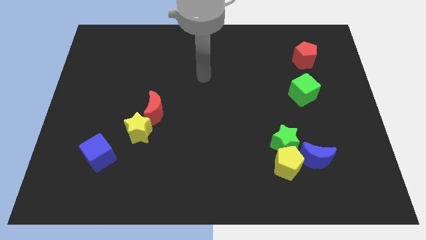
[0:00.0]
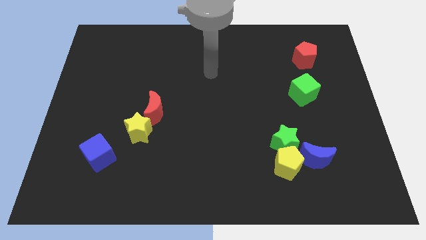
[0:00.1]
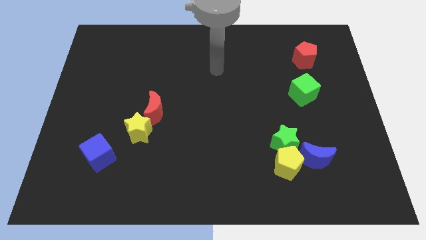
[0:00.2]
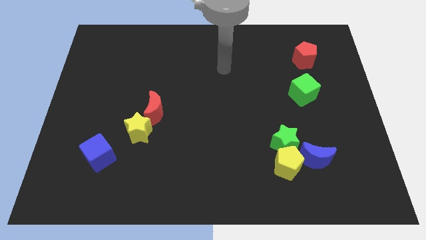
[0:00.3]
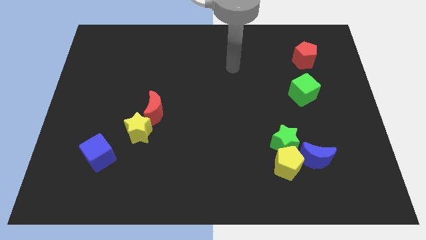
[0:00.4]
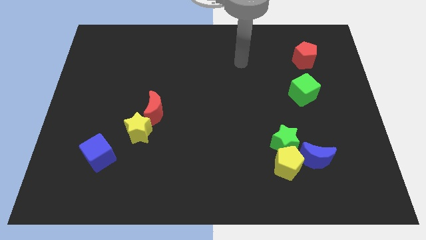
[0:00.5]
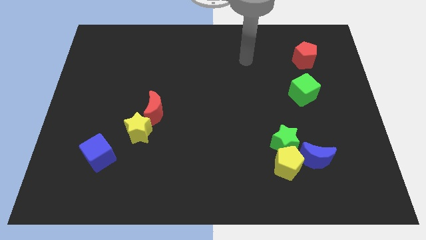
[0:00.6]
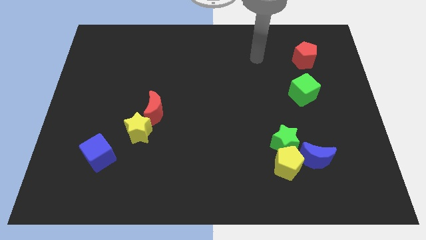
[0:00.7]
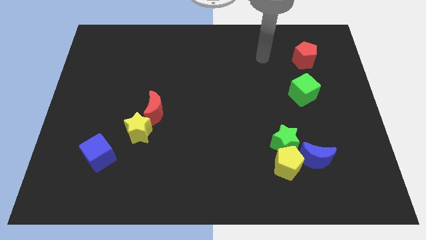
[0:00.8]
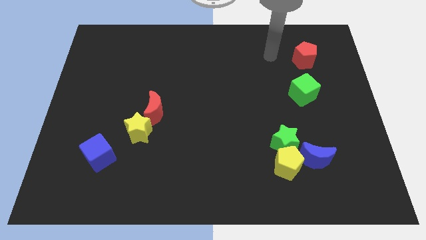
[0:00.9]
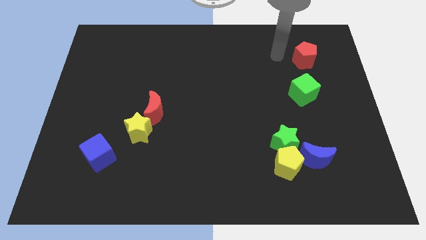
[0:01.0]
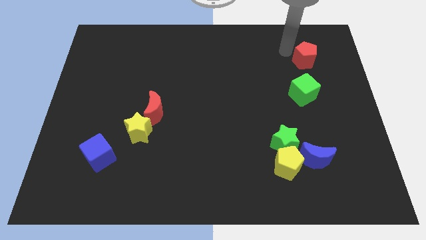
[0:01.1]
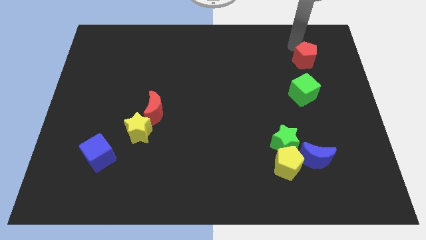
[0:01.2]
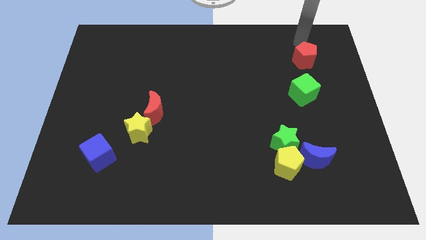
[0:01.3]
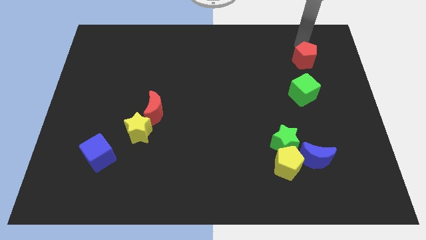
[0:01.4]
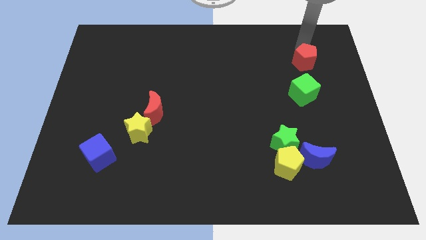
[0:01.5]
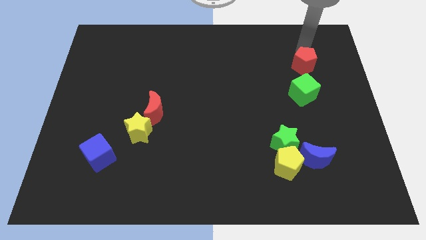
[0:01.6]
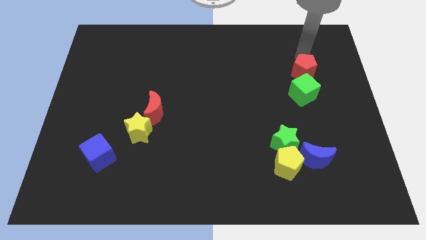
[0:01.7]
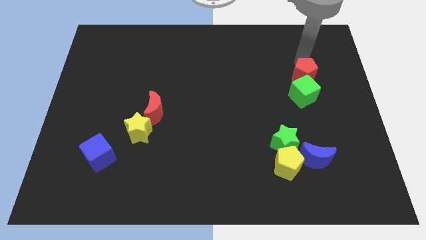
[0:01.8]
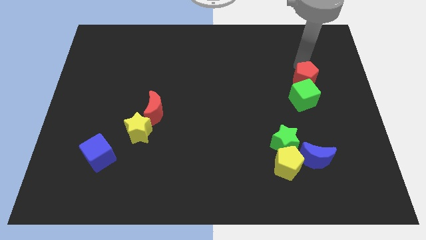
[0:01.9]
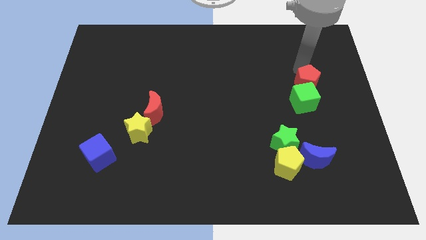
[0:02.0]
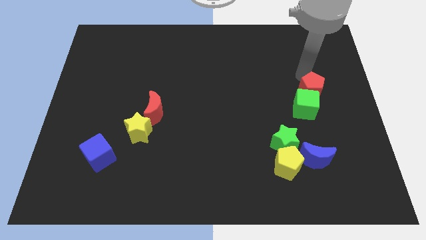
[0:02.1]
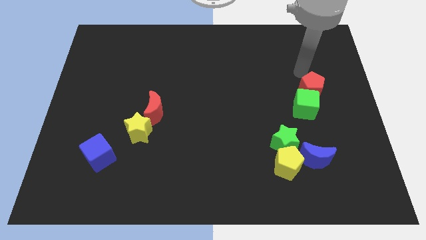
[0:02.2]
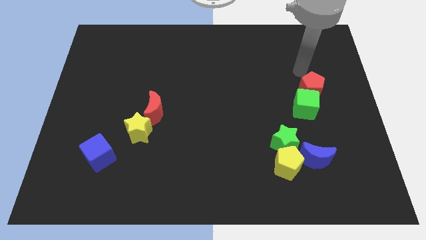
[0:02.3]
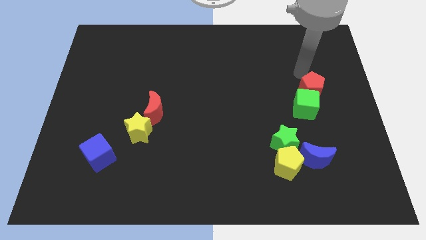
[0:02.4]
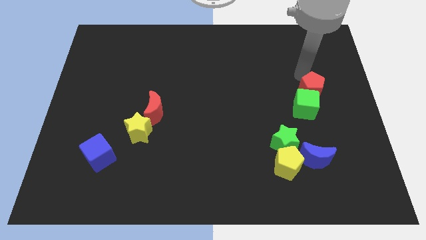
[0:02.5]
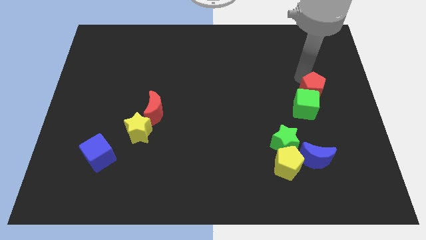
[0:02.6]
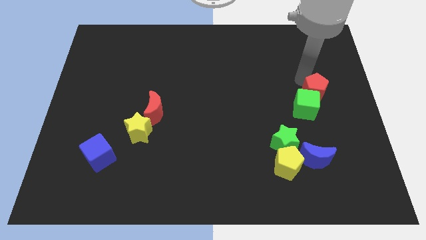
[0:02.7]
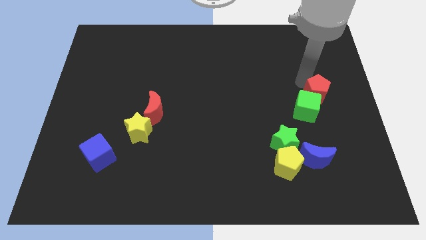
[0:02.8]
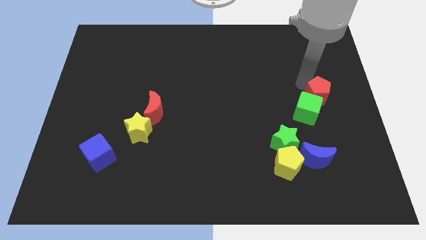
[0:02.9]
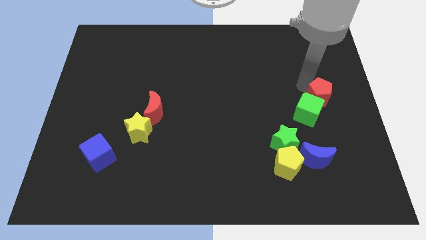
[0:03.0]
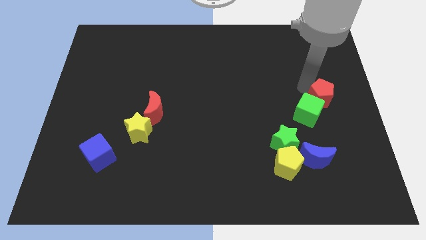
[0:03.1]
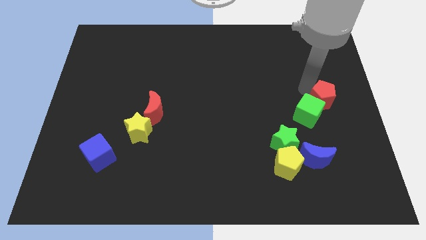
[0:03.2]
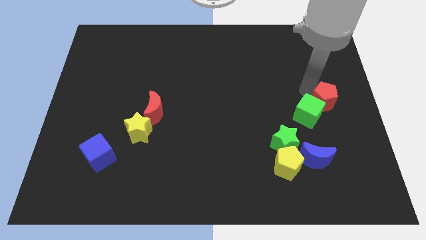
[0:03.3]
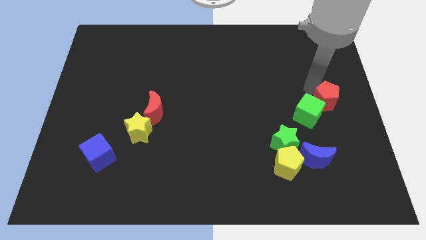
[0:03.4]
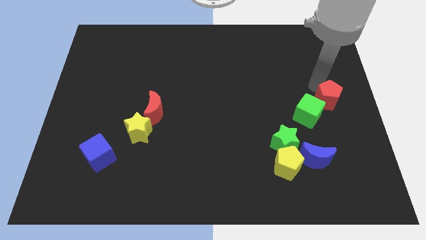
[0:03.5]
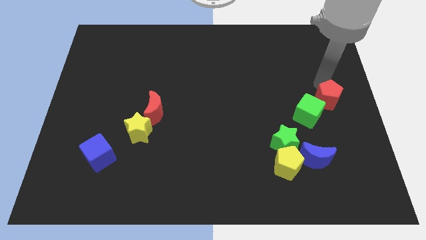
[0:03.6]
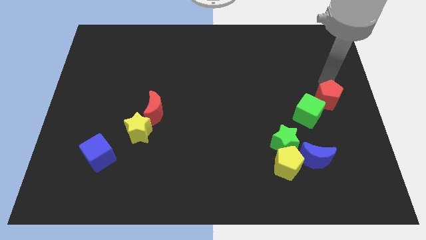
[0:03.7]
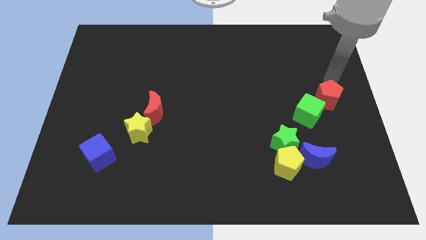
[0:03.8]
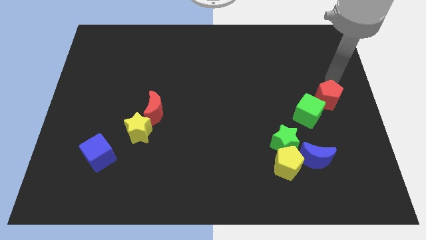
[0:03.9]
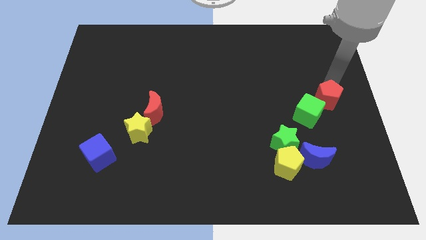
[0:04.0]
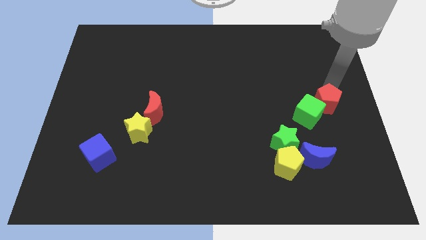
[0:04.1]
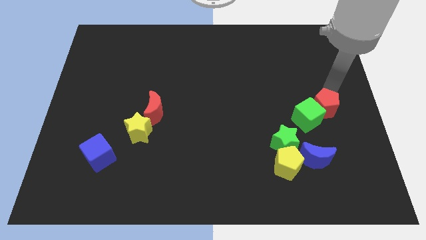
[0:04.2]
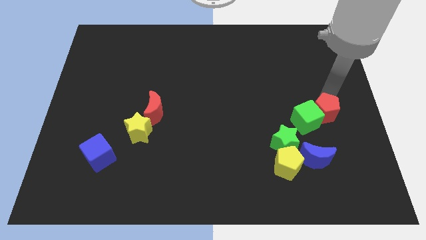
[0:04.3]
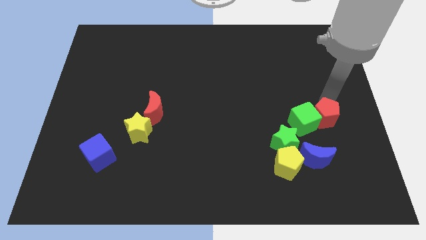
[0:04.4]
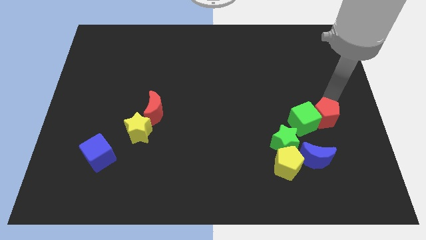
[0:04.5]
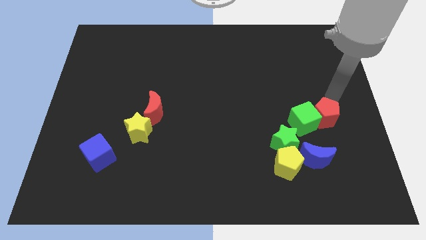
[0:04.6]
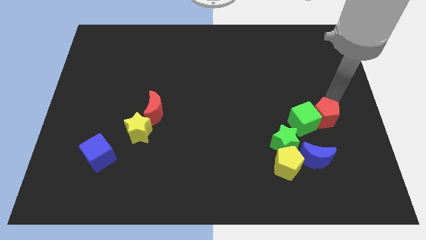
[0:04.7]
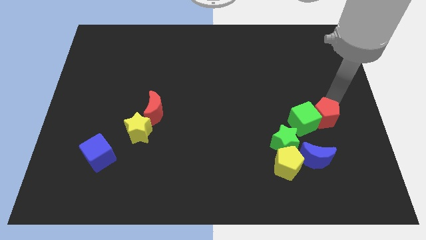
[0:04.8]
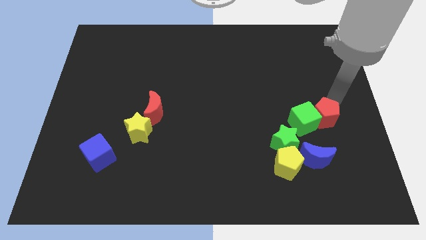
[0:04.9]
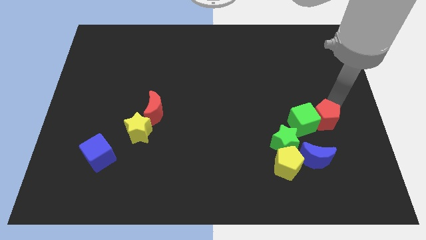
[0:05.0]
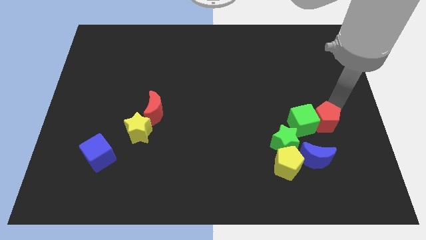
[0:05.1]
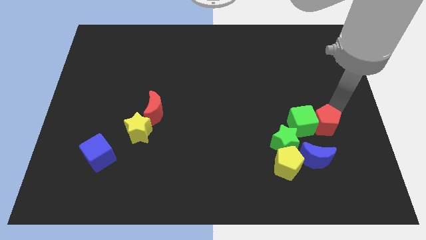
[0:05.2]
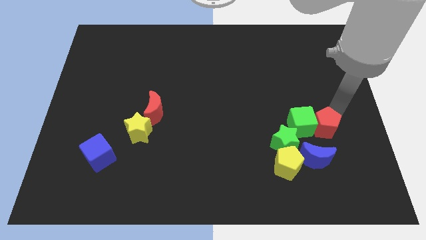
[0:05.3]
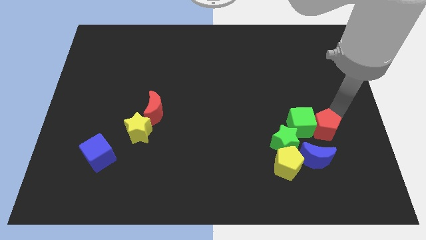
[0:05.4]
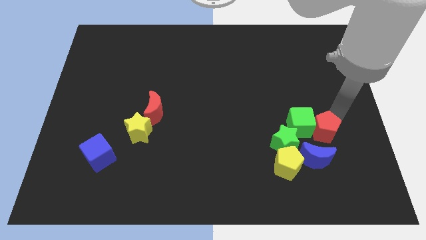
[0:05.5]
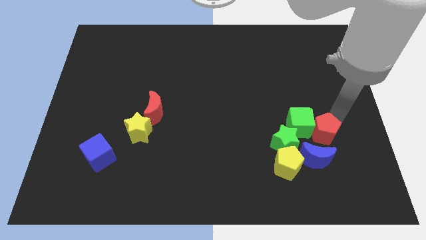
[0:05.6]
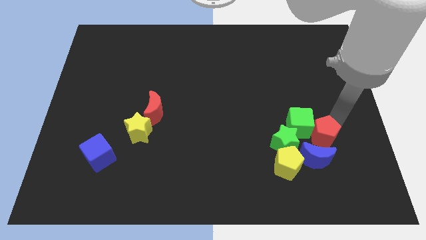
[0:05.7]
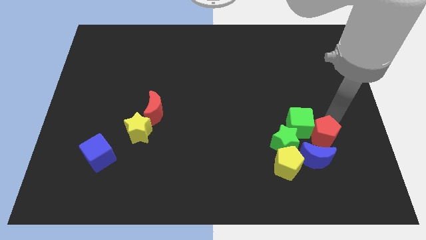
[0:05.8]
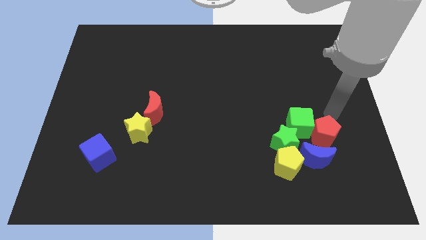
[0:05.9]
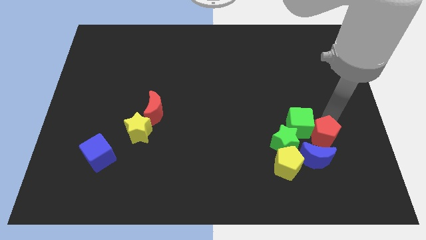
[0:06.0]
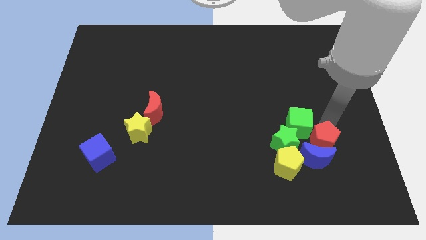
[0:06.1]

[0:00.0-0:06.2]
slide the red pentagon towards the blue moon

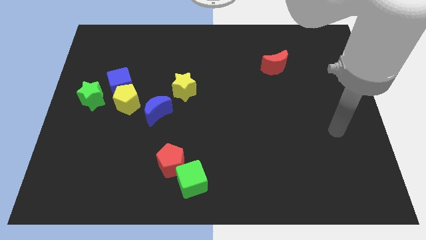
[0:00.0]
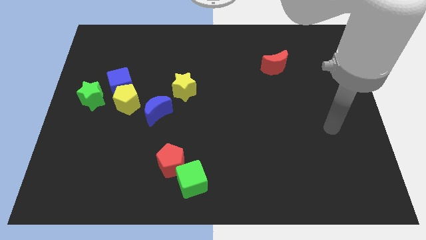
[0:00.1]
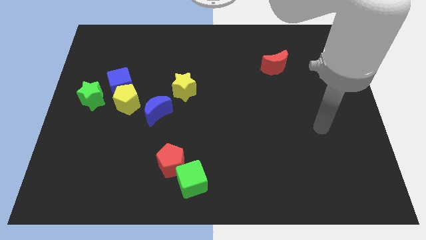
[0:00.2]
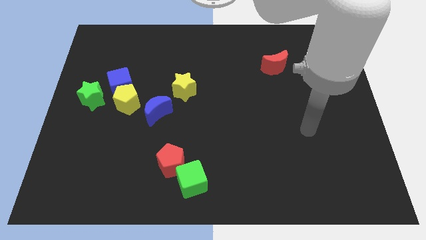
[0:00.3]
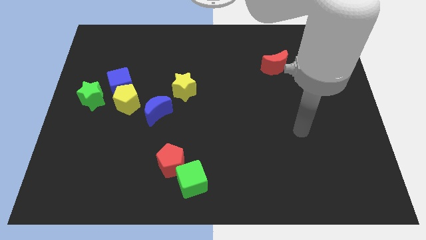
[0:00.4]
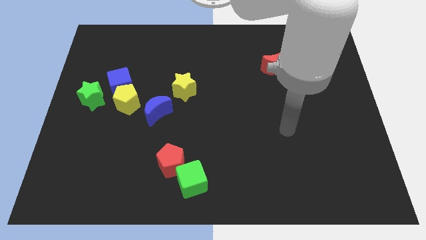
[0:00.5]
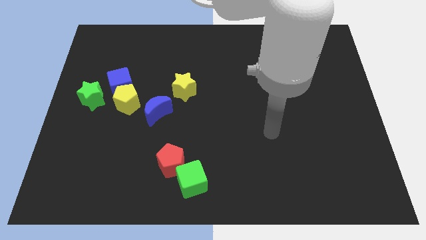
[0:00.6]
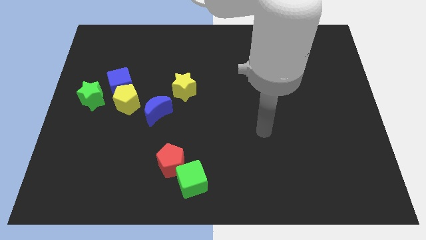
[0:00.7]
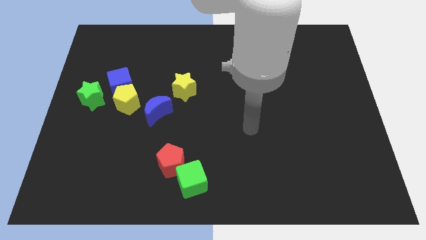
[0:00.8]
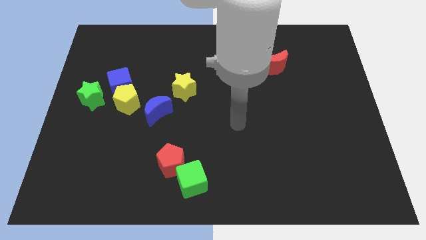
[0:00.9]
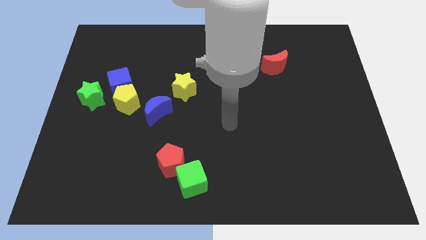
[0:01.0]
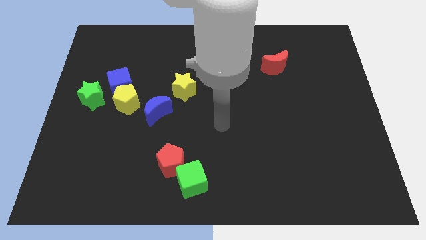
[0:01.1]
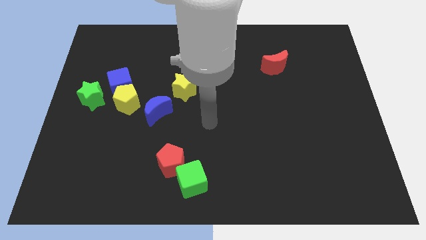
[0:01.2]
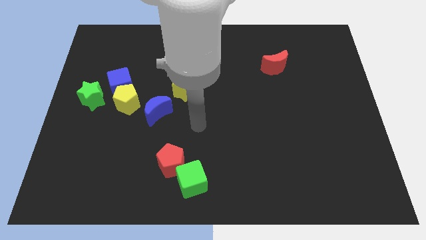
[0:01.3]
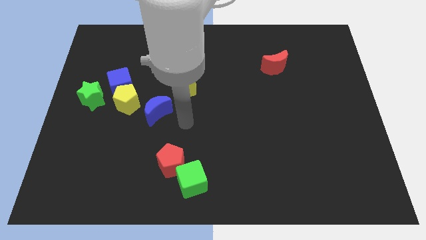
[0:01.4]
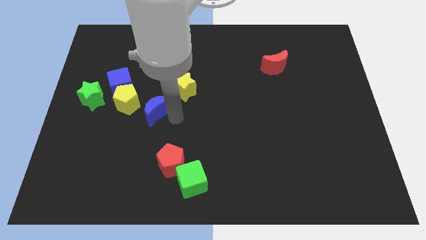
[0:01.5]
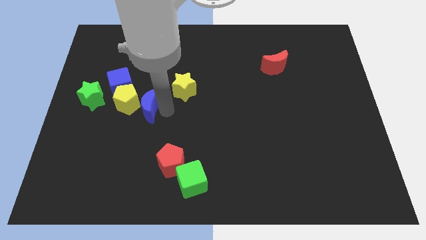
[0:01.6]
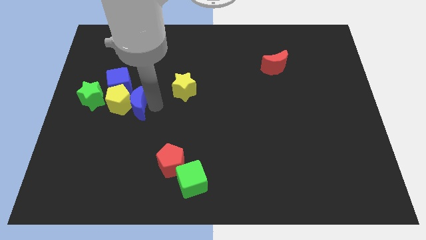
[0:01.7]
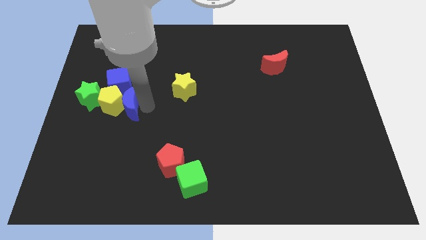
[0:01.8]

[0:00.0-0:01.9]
push the yellow pentagon next to the green star
